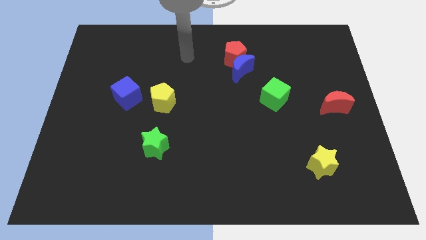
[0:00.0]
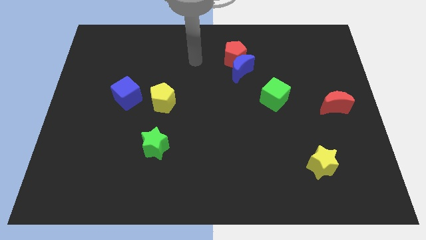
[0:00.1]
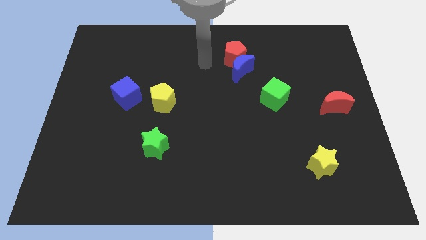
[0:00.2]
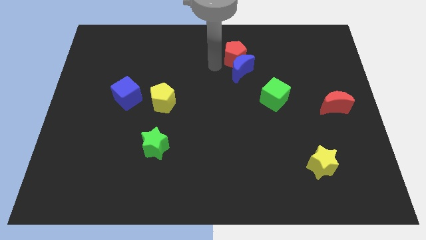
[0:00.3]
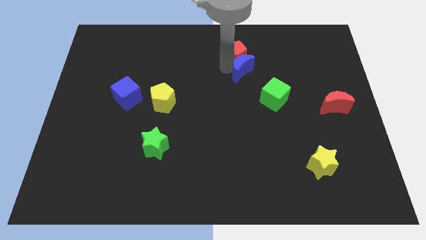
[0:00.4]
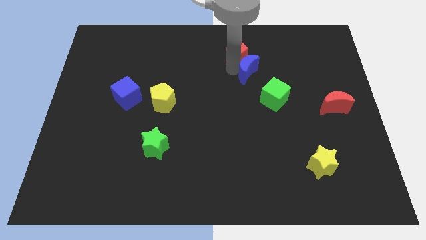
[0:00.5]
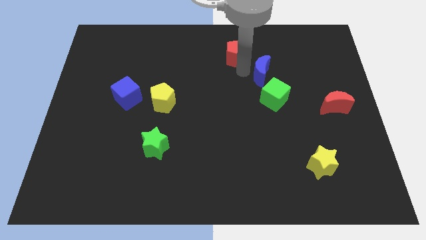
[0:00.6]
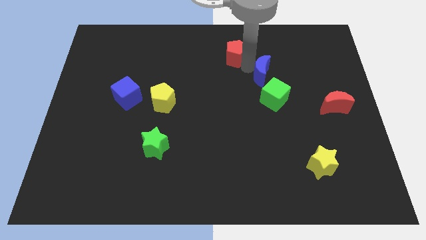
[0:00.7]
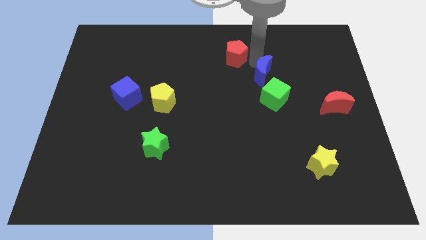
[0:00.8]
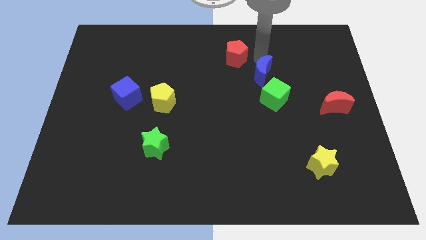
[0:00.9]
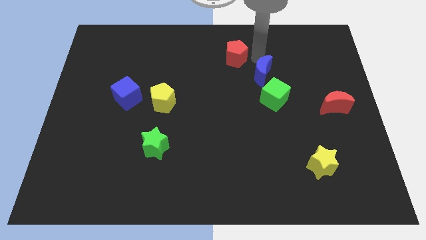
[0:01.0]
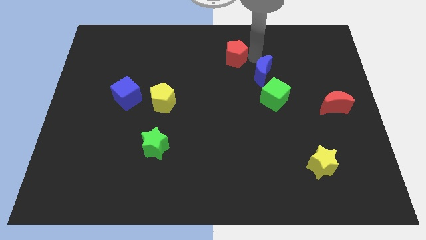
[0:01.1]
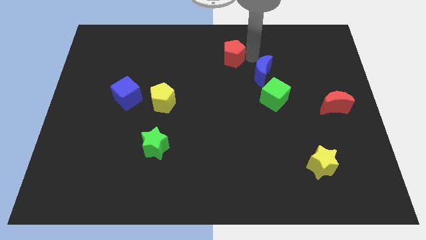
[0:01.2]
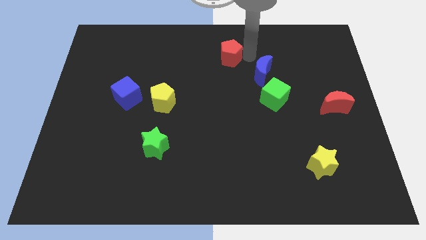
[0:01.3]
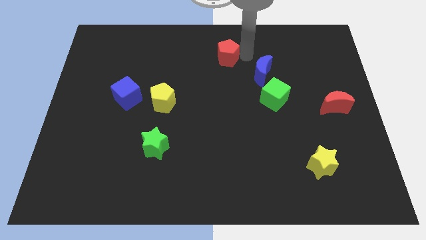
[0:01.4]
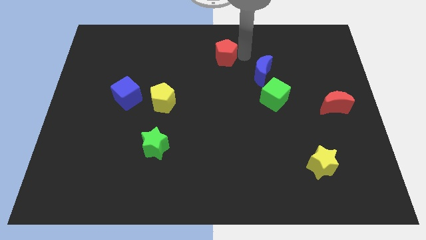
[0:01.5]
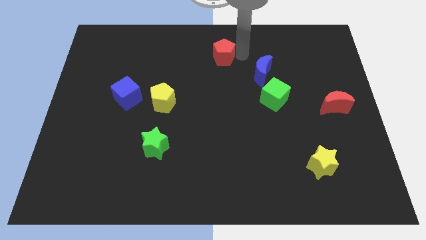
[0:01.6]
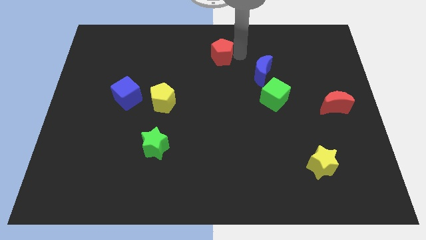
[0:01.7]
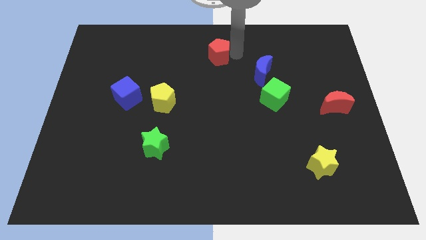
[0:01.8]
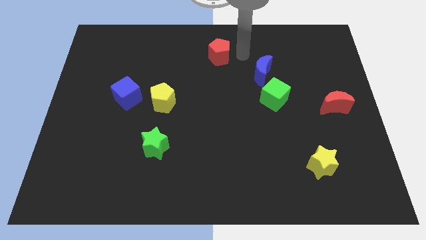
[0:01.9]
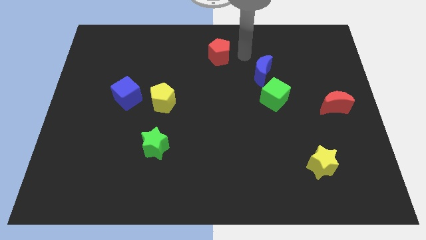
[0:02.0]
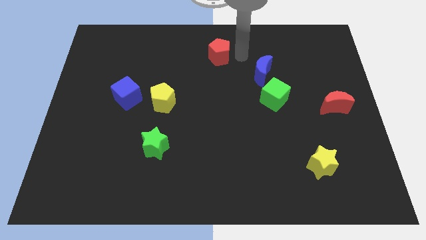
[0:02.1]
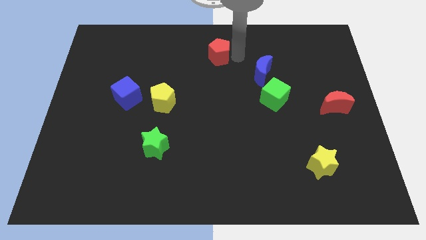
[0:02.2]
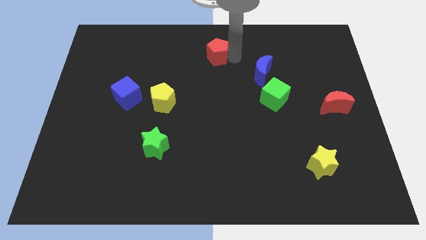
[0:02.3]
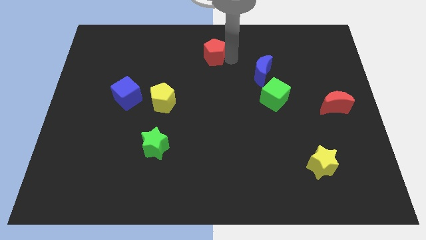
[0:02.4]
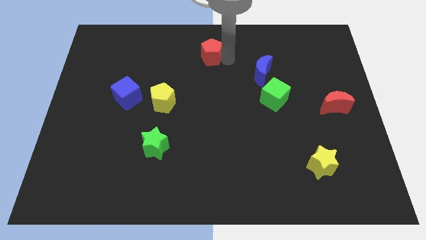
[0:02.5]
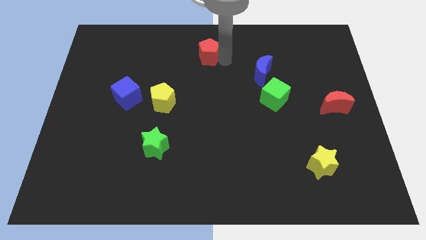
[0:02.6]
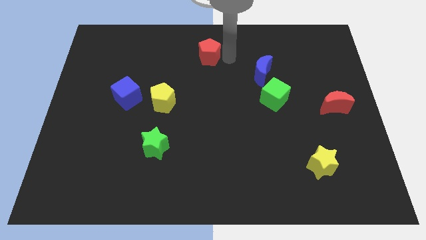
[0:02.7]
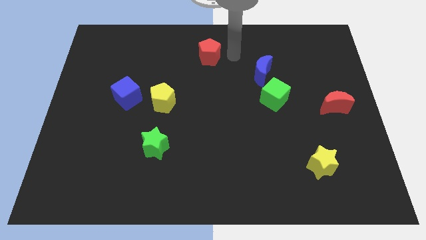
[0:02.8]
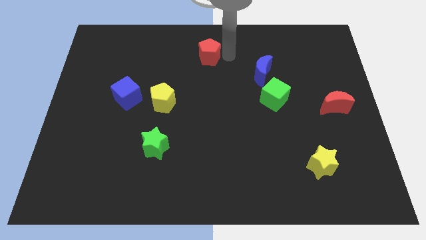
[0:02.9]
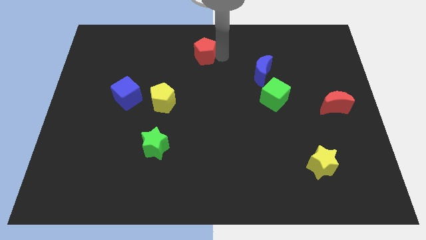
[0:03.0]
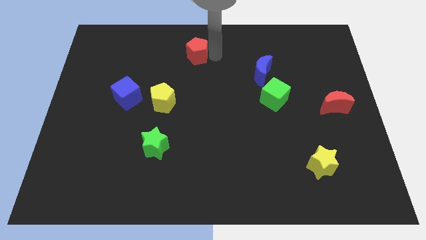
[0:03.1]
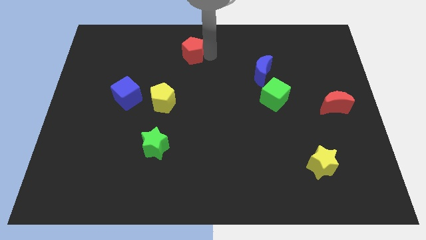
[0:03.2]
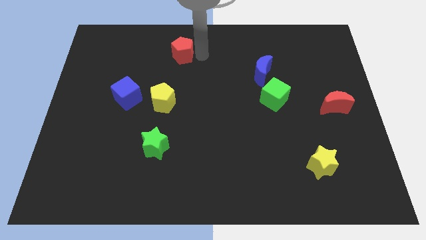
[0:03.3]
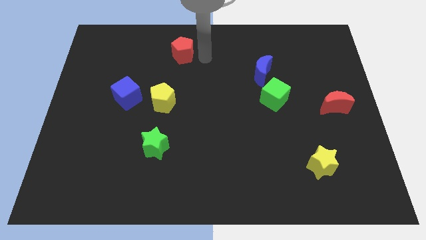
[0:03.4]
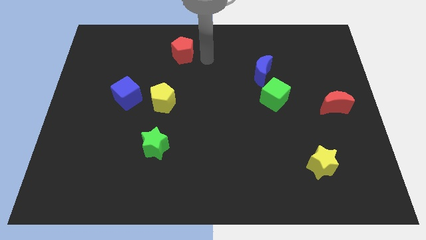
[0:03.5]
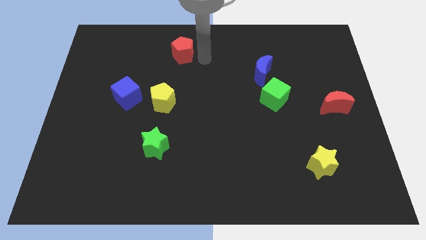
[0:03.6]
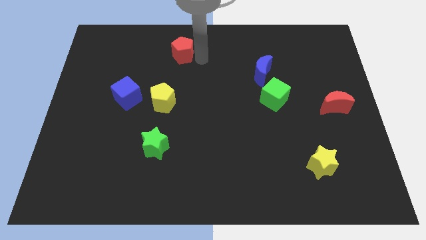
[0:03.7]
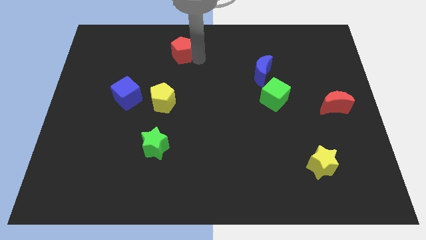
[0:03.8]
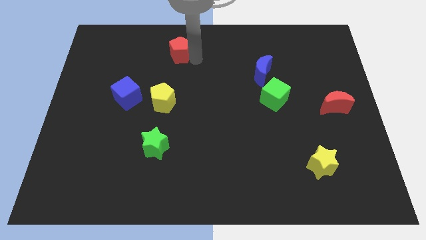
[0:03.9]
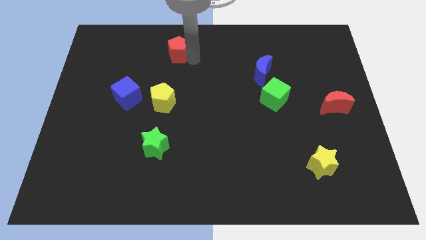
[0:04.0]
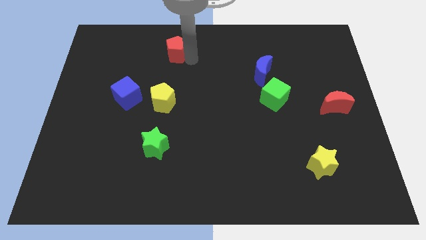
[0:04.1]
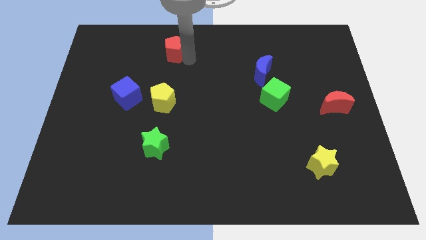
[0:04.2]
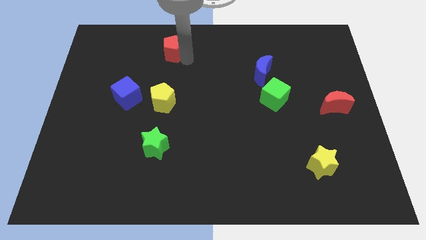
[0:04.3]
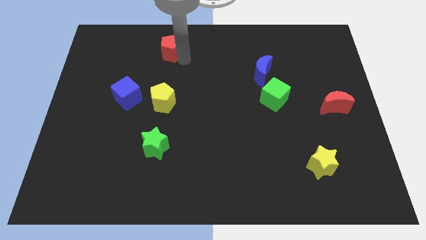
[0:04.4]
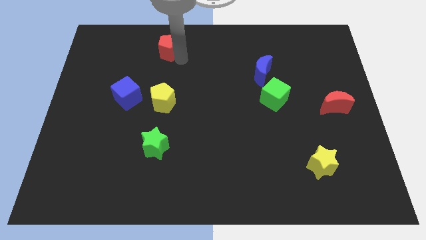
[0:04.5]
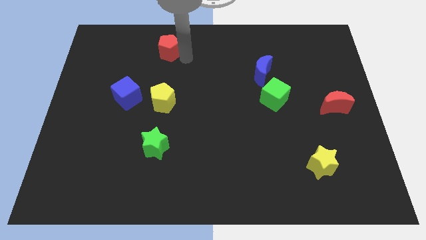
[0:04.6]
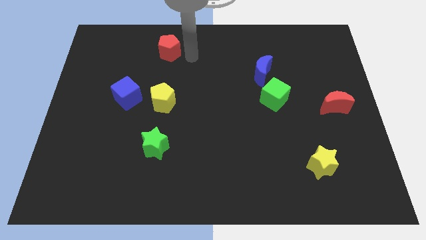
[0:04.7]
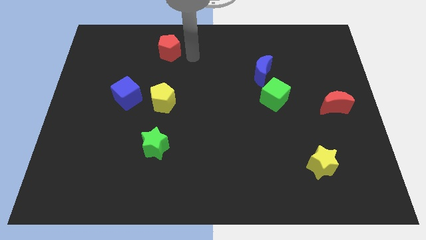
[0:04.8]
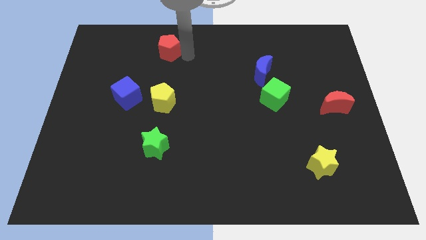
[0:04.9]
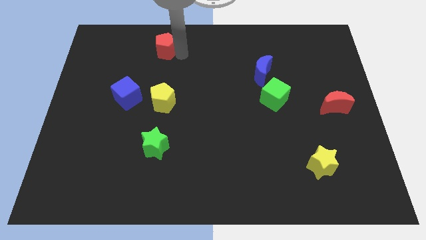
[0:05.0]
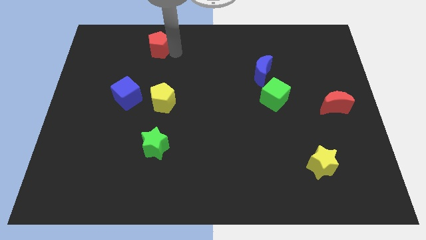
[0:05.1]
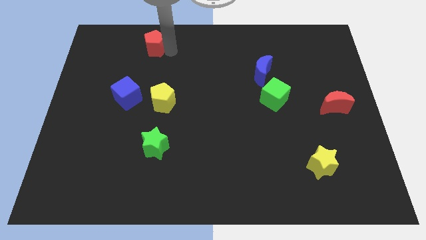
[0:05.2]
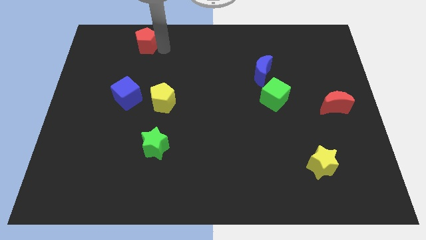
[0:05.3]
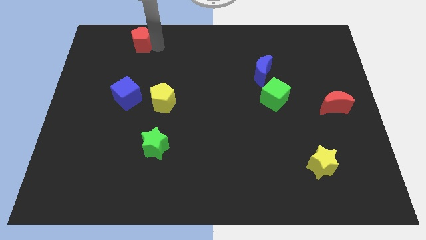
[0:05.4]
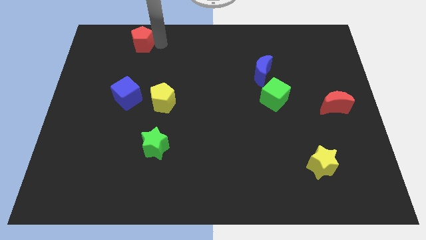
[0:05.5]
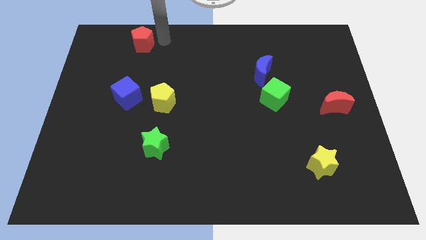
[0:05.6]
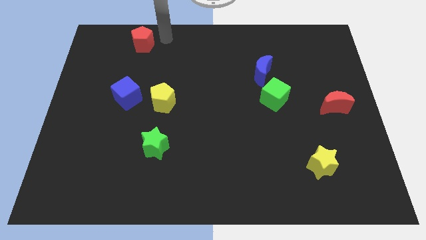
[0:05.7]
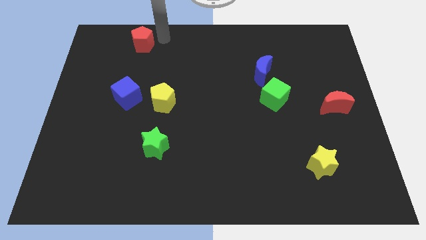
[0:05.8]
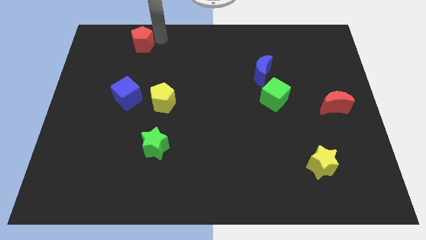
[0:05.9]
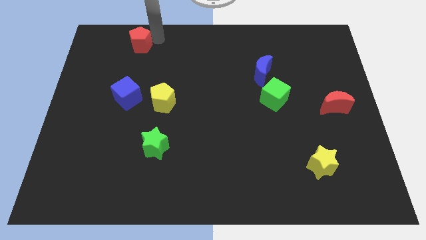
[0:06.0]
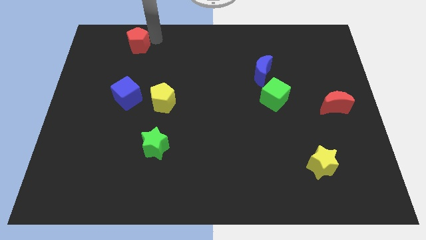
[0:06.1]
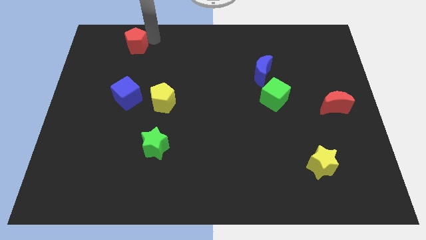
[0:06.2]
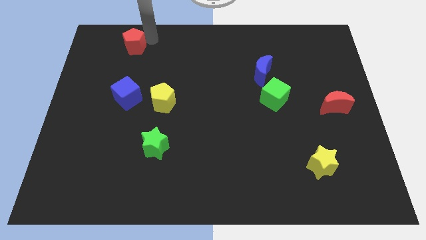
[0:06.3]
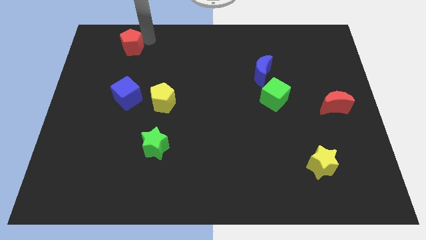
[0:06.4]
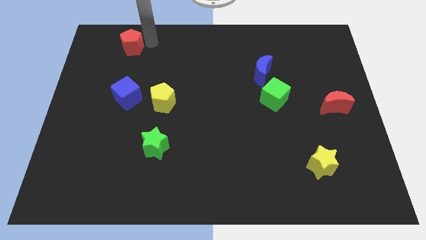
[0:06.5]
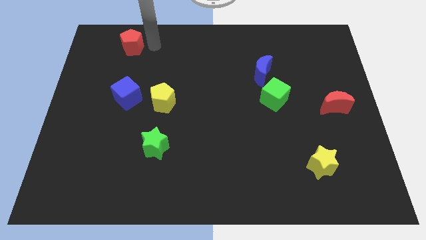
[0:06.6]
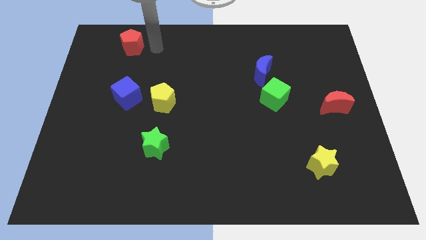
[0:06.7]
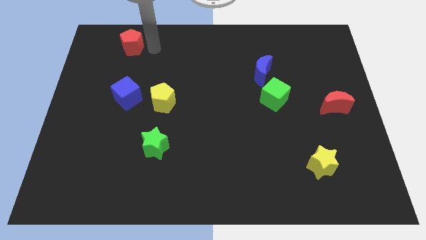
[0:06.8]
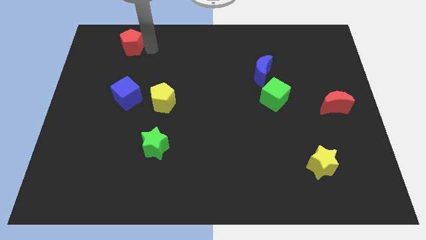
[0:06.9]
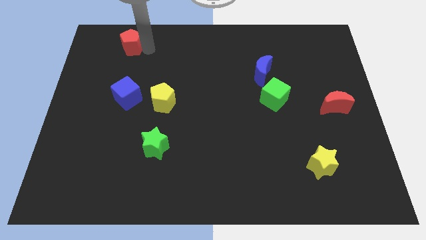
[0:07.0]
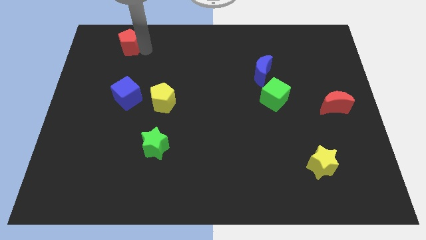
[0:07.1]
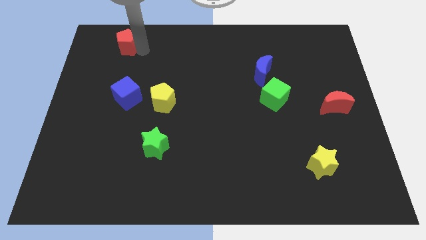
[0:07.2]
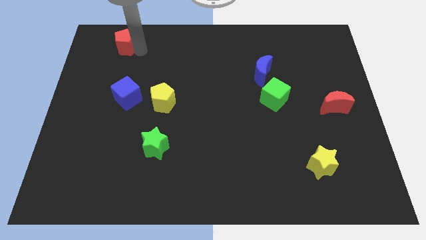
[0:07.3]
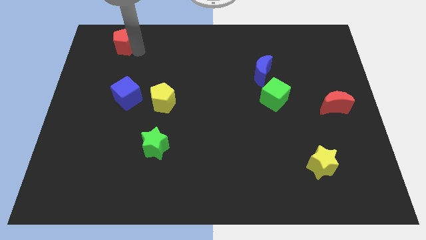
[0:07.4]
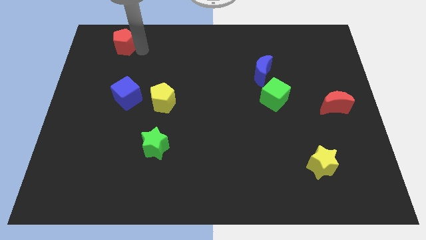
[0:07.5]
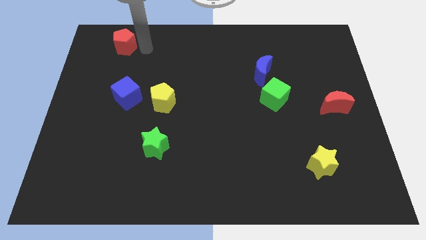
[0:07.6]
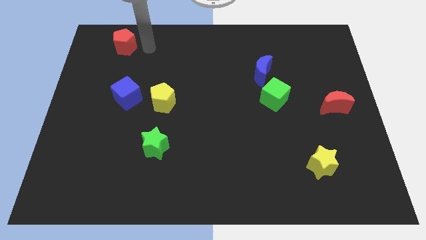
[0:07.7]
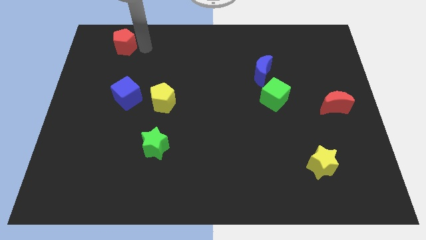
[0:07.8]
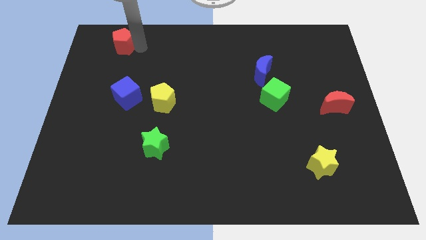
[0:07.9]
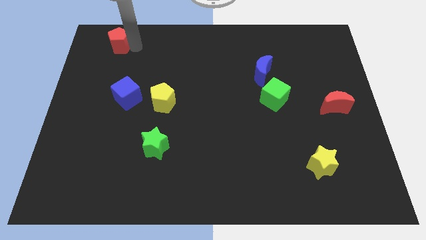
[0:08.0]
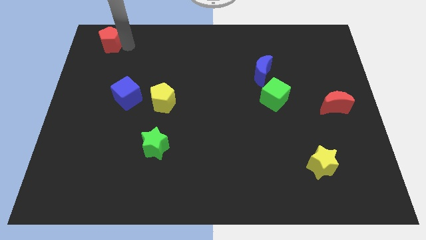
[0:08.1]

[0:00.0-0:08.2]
slide the red pentagon to the upper left corner
